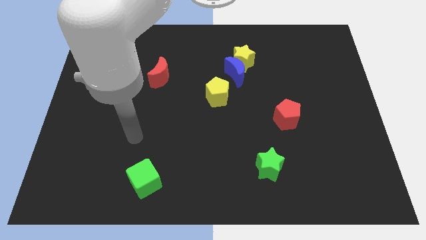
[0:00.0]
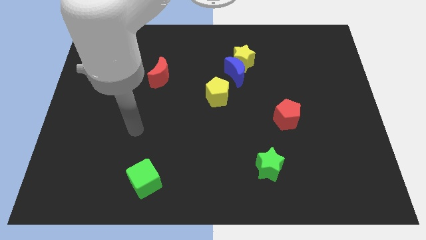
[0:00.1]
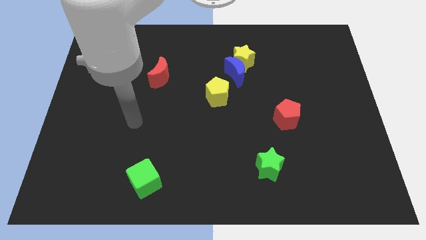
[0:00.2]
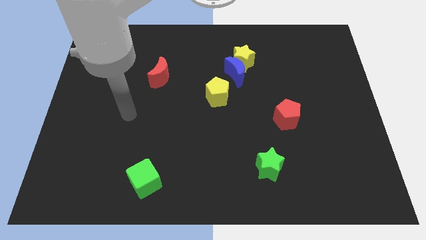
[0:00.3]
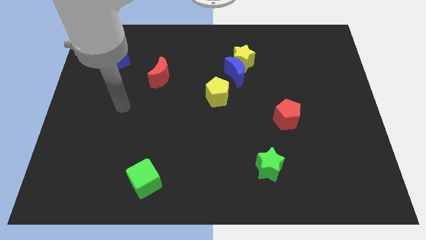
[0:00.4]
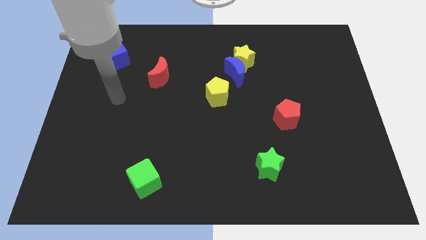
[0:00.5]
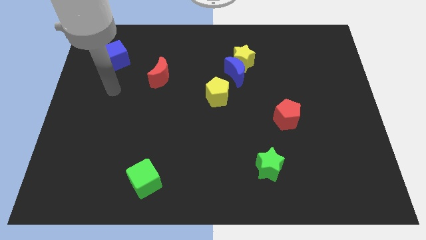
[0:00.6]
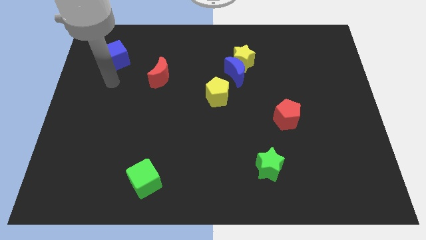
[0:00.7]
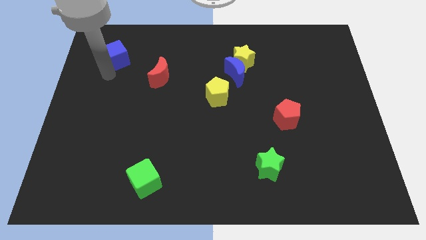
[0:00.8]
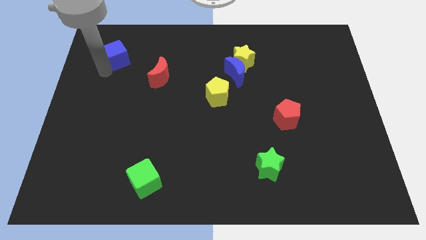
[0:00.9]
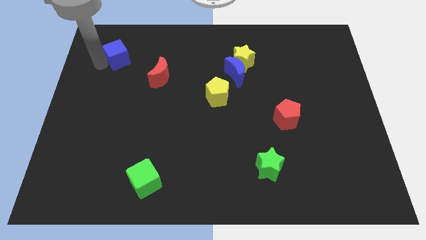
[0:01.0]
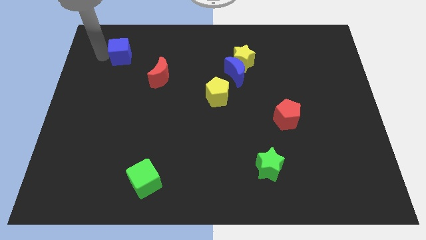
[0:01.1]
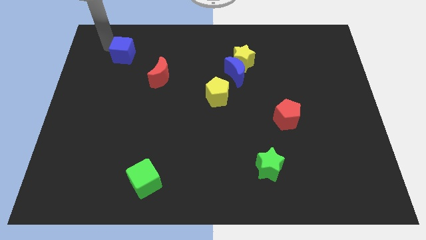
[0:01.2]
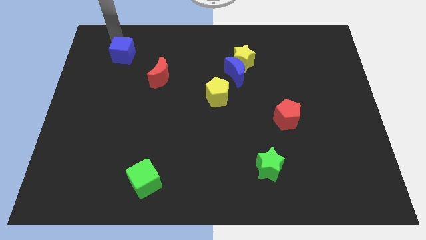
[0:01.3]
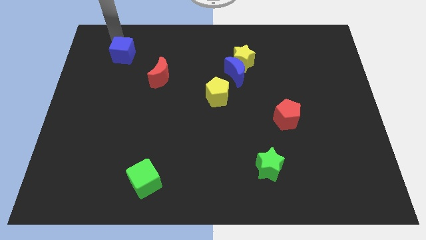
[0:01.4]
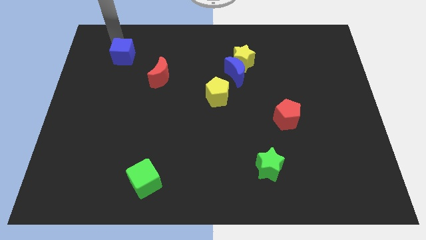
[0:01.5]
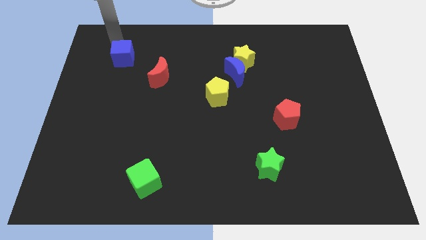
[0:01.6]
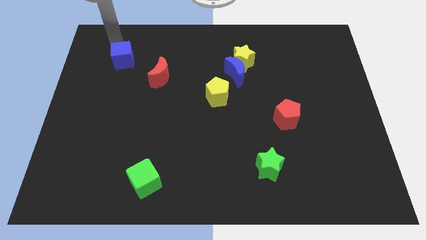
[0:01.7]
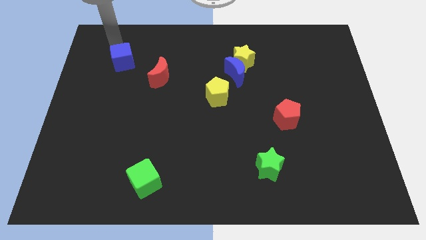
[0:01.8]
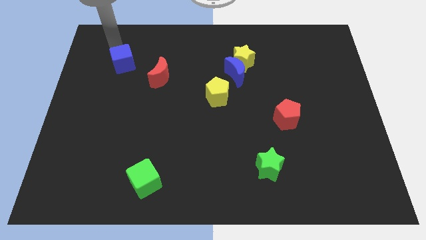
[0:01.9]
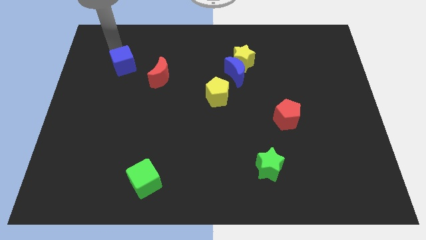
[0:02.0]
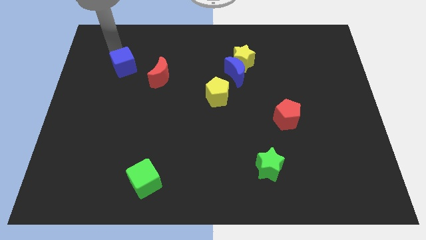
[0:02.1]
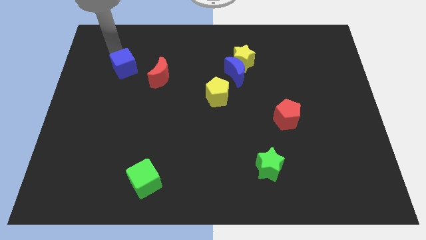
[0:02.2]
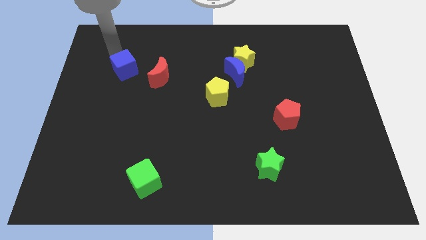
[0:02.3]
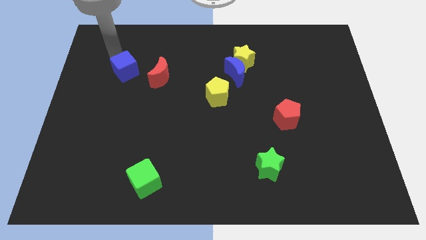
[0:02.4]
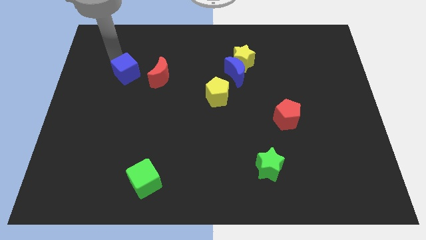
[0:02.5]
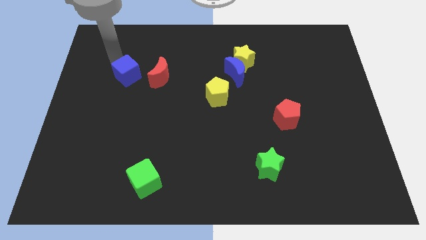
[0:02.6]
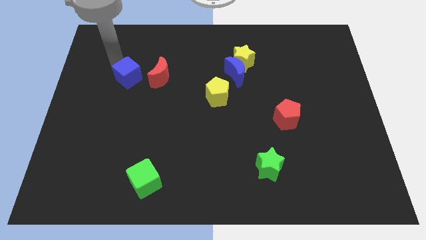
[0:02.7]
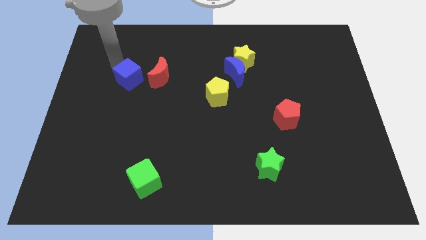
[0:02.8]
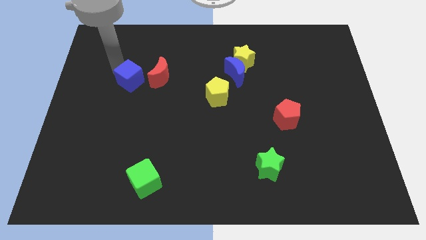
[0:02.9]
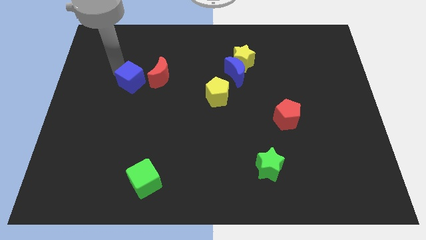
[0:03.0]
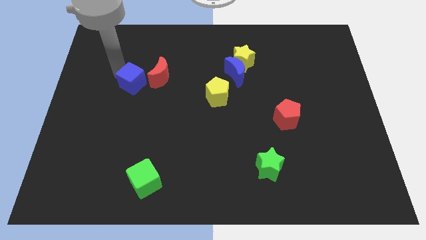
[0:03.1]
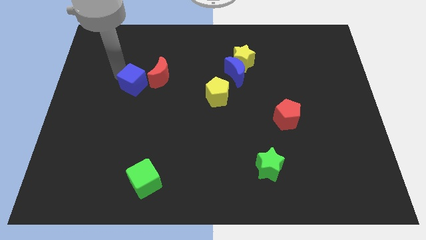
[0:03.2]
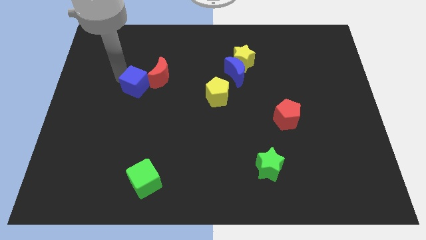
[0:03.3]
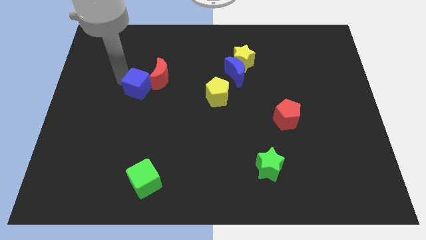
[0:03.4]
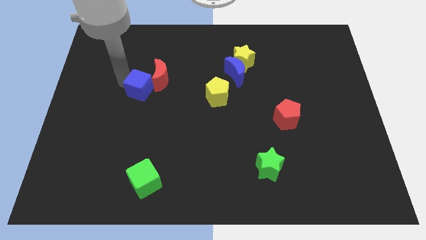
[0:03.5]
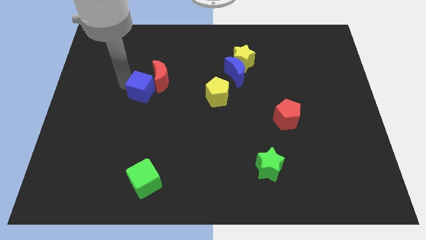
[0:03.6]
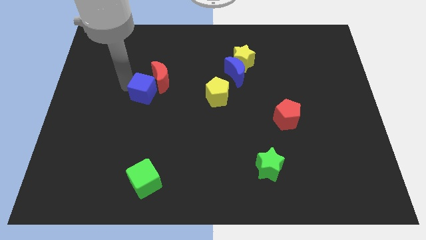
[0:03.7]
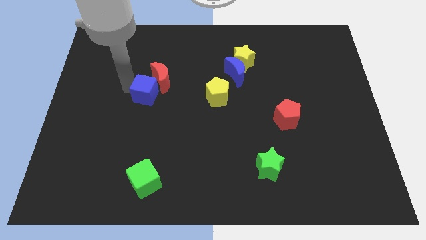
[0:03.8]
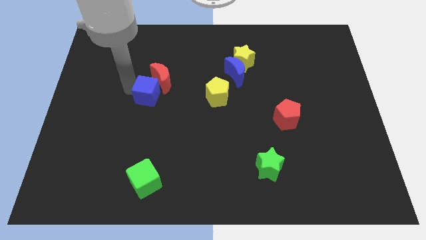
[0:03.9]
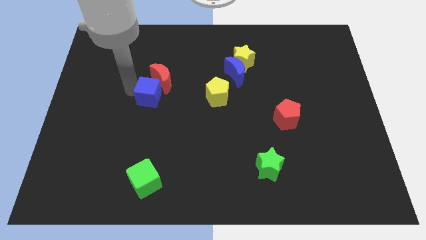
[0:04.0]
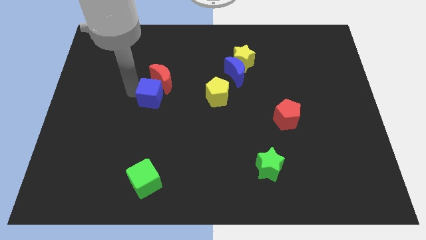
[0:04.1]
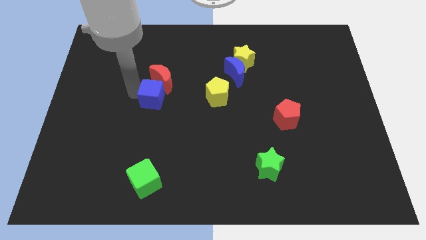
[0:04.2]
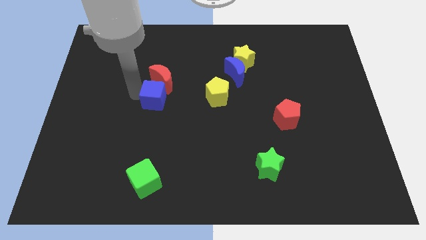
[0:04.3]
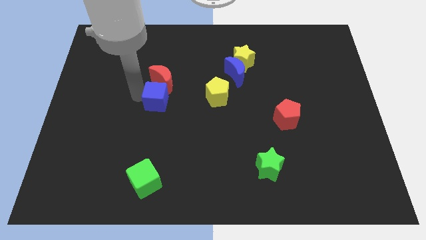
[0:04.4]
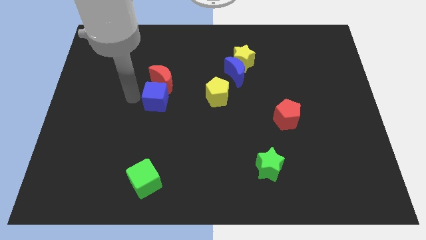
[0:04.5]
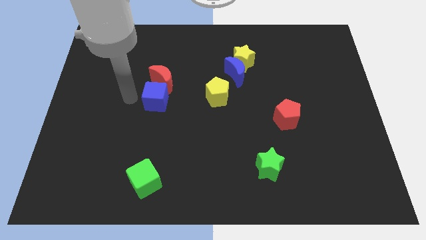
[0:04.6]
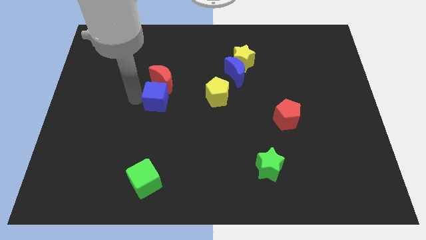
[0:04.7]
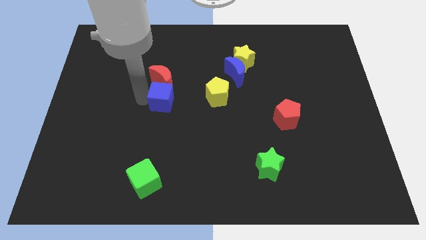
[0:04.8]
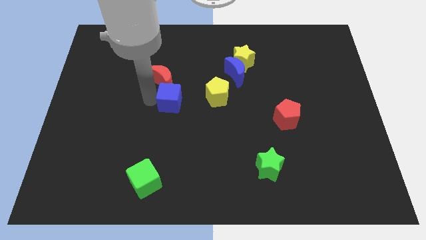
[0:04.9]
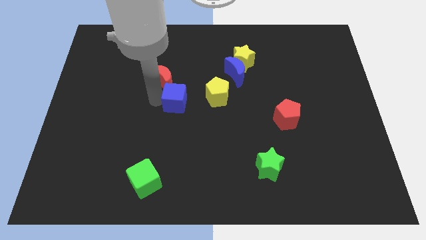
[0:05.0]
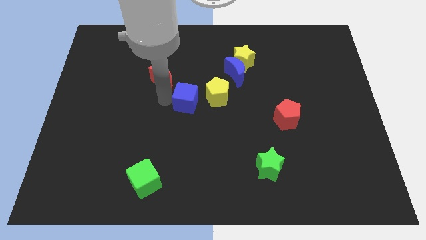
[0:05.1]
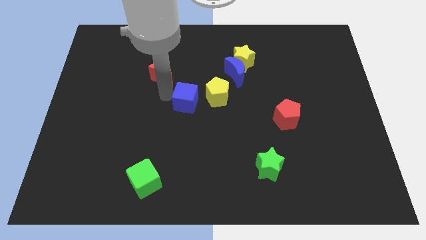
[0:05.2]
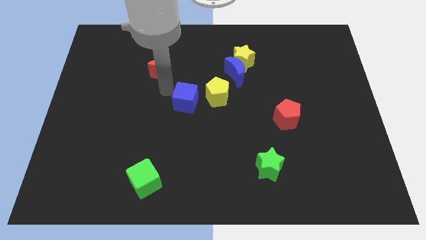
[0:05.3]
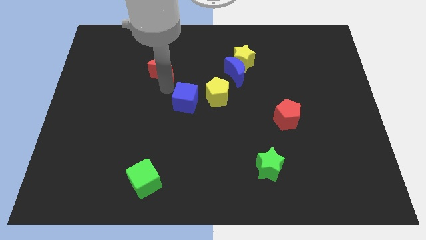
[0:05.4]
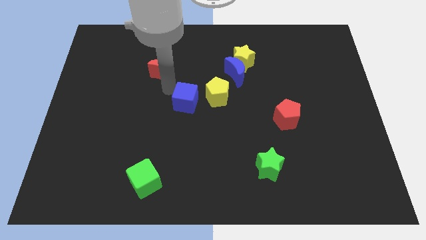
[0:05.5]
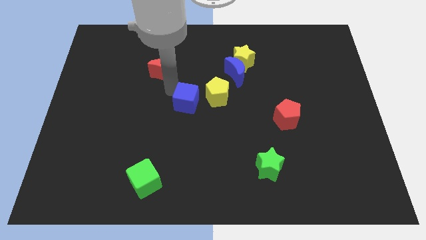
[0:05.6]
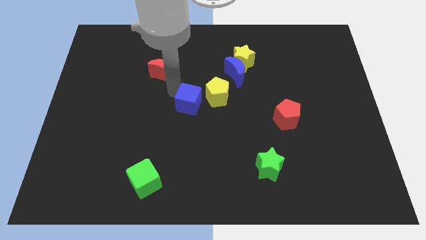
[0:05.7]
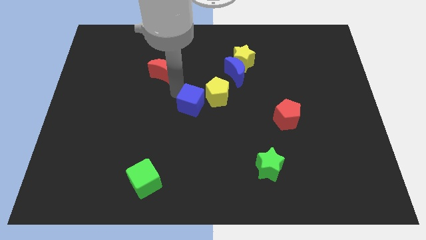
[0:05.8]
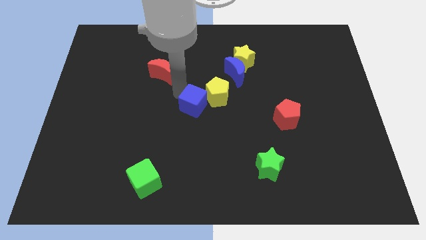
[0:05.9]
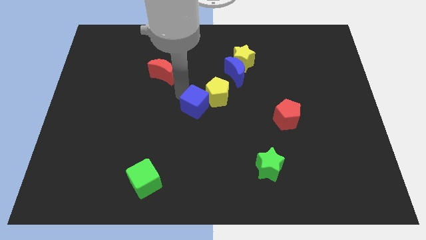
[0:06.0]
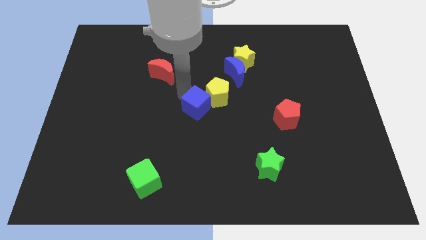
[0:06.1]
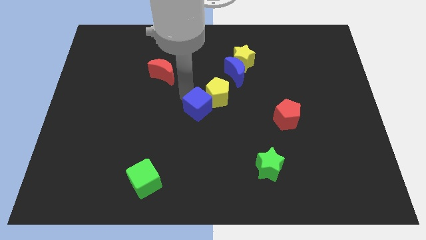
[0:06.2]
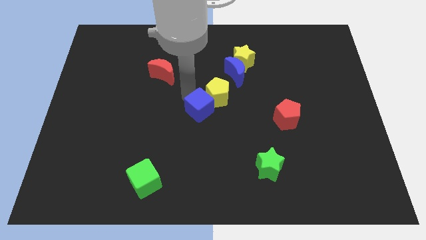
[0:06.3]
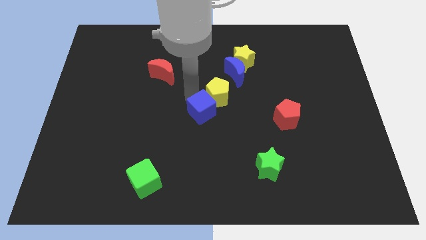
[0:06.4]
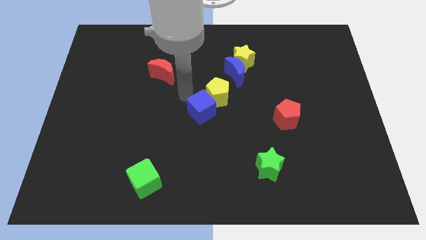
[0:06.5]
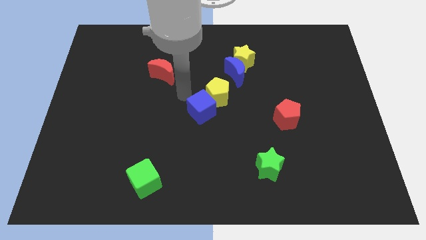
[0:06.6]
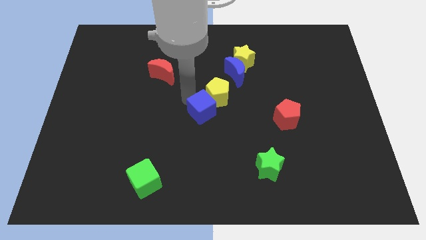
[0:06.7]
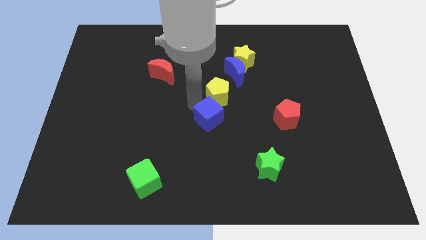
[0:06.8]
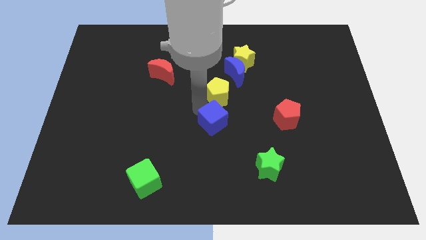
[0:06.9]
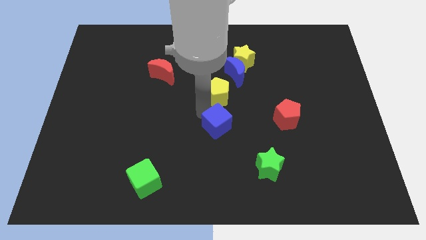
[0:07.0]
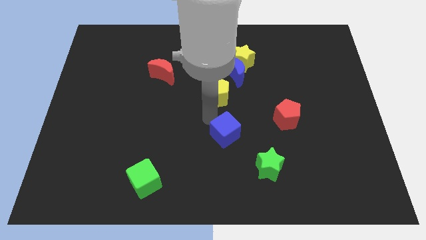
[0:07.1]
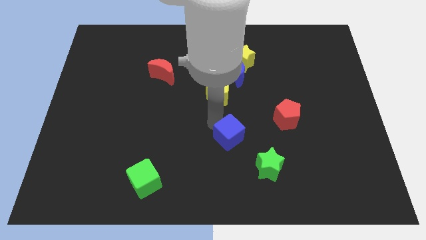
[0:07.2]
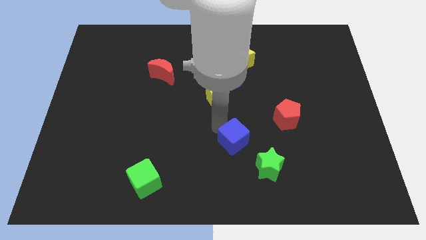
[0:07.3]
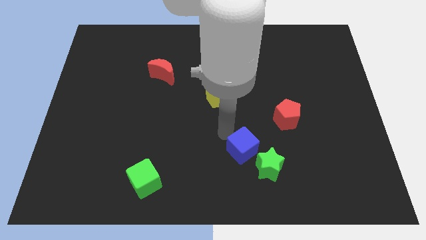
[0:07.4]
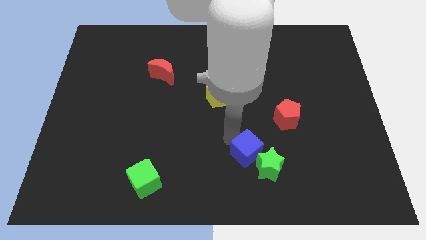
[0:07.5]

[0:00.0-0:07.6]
put the blue cube towards the green star
